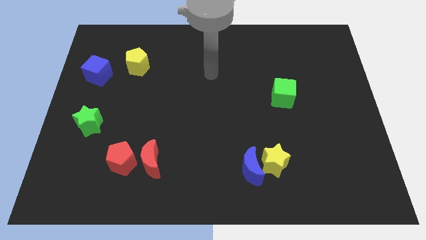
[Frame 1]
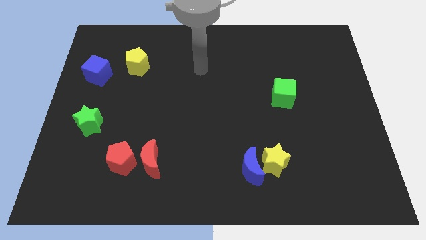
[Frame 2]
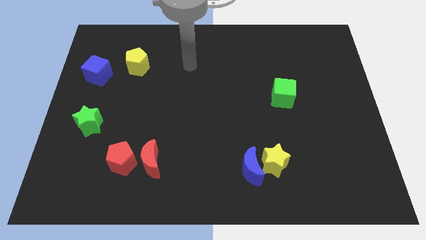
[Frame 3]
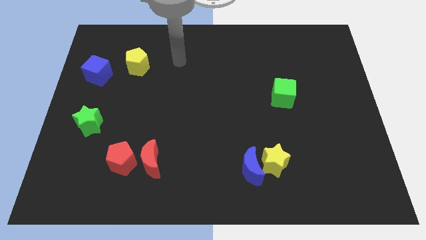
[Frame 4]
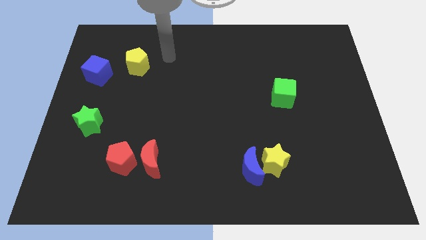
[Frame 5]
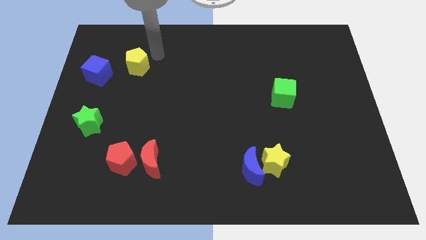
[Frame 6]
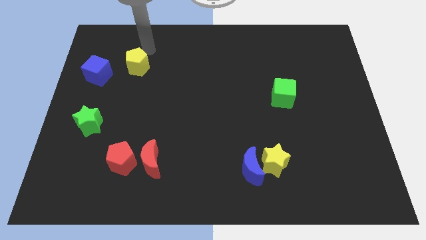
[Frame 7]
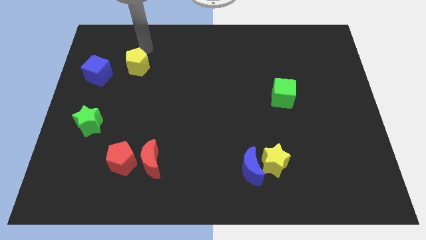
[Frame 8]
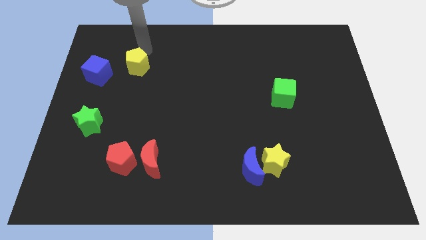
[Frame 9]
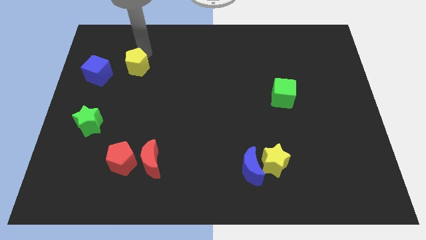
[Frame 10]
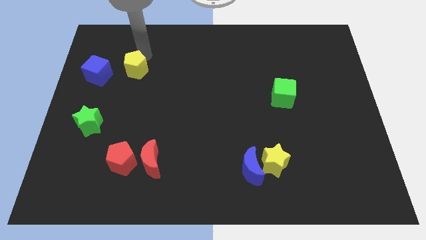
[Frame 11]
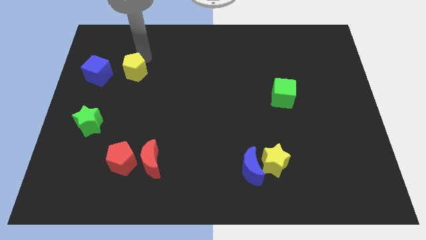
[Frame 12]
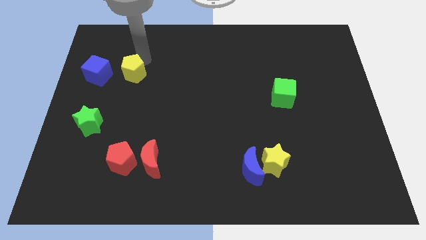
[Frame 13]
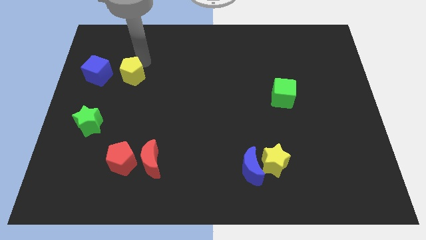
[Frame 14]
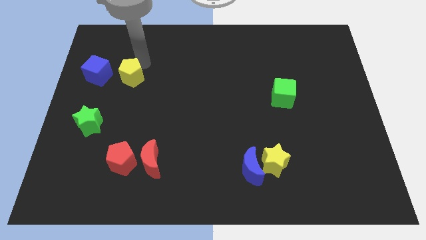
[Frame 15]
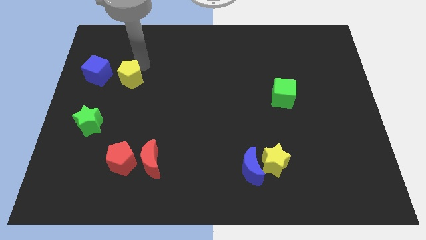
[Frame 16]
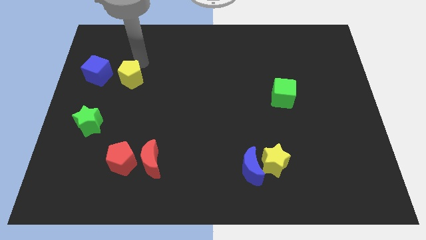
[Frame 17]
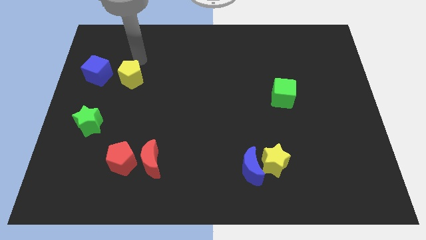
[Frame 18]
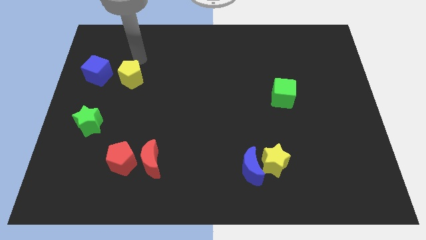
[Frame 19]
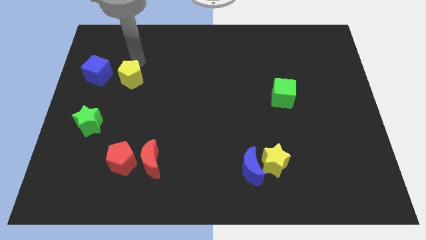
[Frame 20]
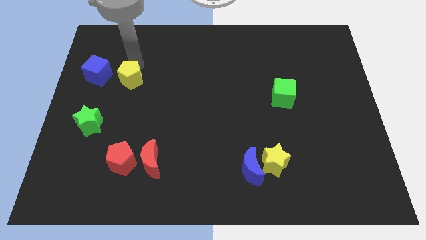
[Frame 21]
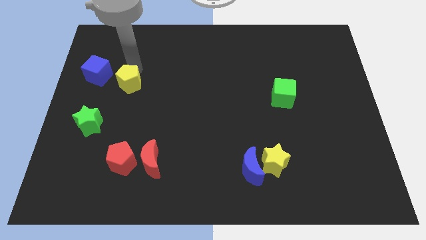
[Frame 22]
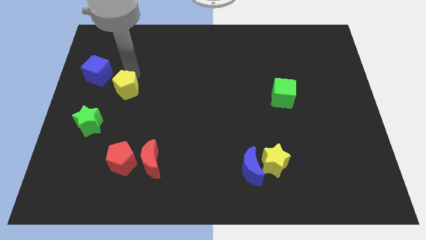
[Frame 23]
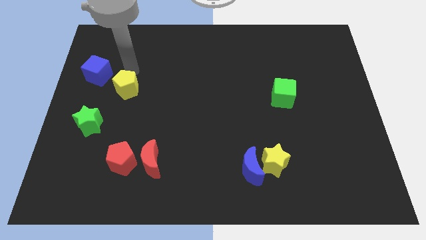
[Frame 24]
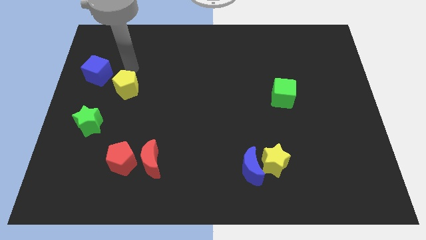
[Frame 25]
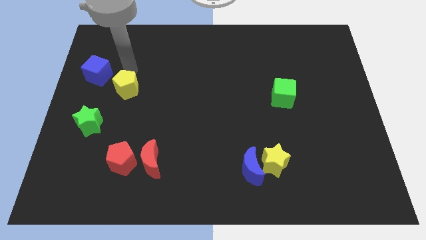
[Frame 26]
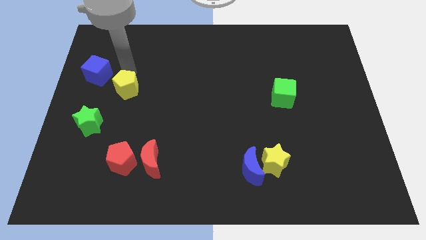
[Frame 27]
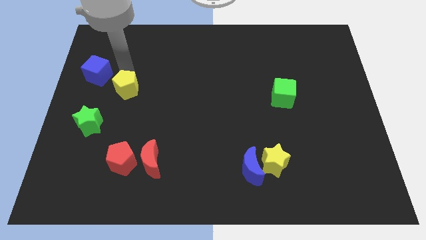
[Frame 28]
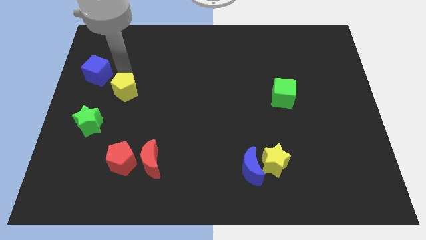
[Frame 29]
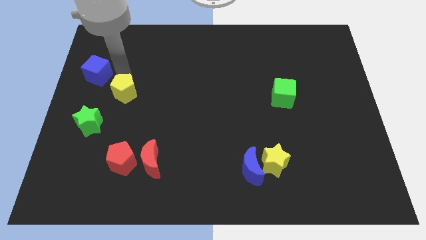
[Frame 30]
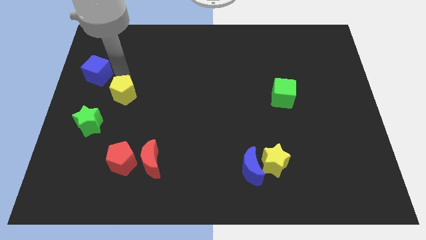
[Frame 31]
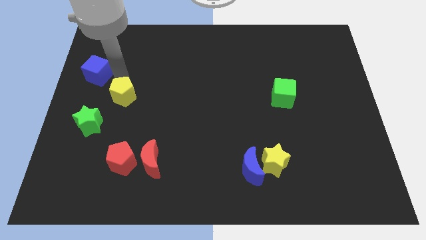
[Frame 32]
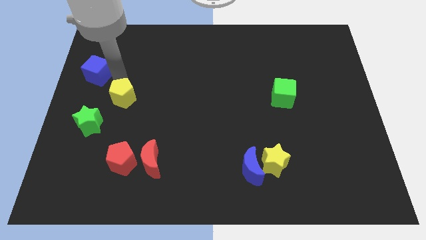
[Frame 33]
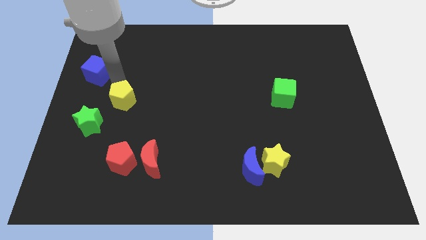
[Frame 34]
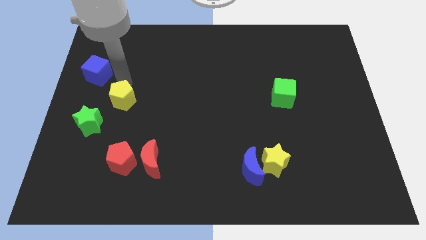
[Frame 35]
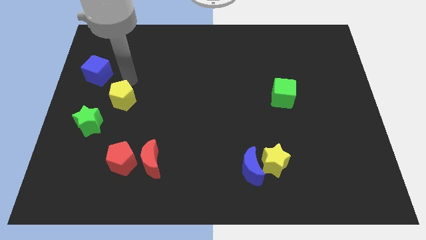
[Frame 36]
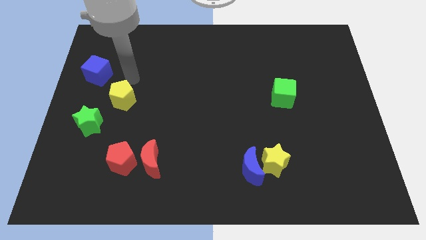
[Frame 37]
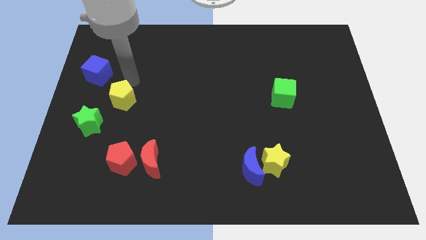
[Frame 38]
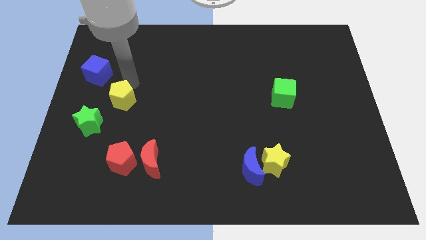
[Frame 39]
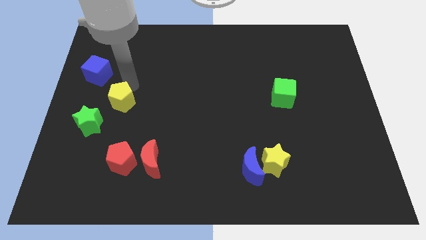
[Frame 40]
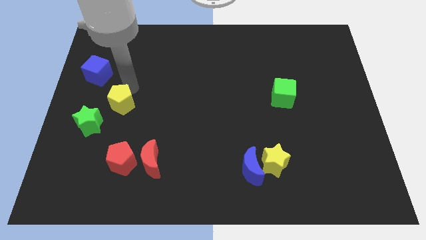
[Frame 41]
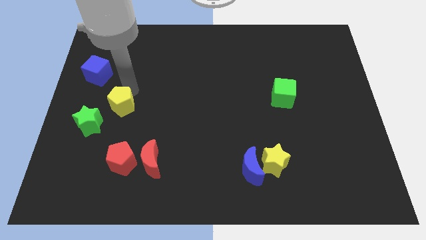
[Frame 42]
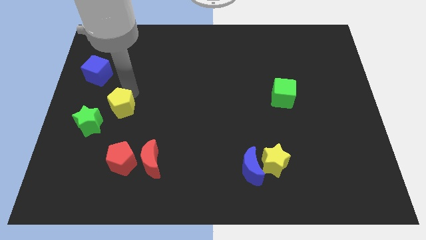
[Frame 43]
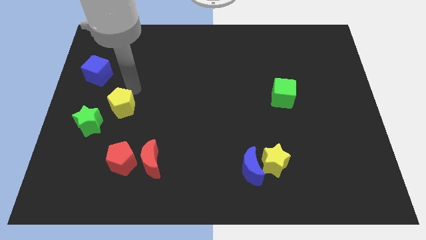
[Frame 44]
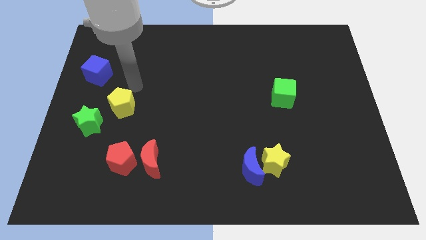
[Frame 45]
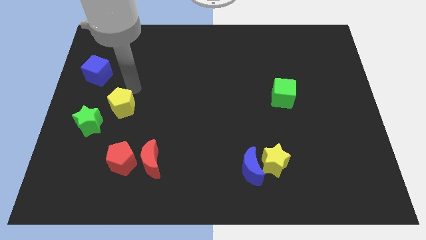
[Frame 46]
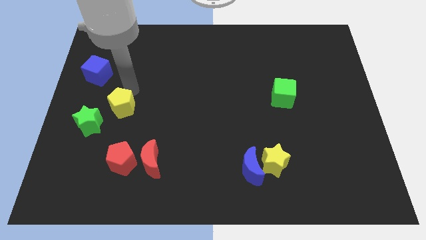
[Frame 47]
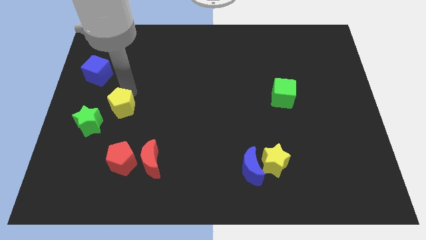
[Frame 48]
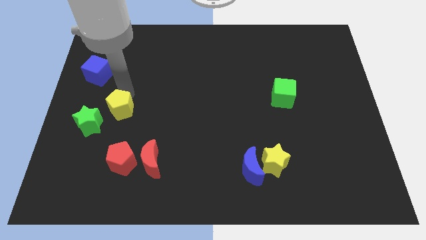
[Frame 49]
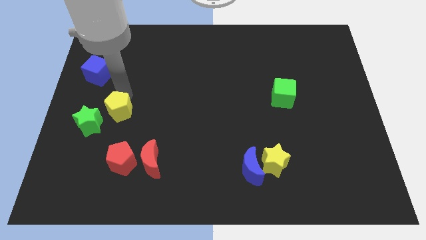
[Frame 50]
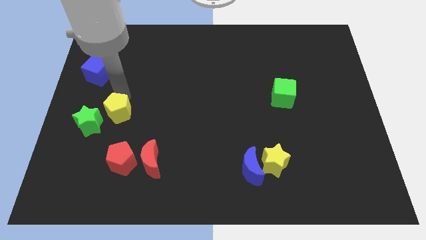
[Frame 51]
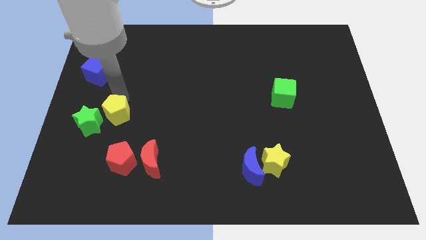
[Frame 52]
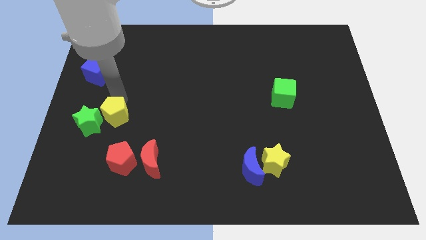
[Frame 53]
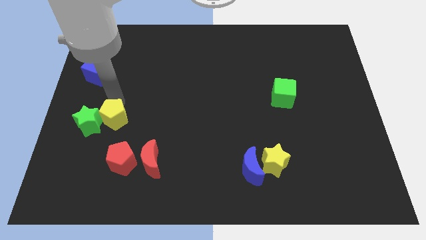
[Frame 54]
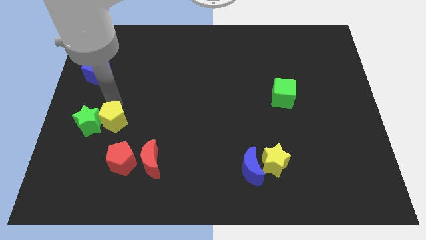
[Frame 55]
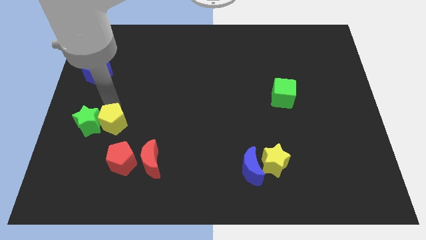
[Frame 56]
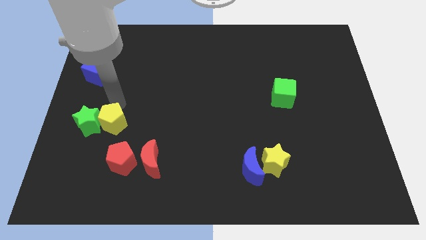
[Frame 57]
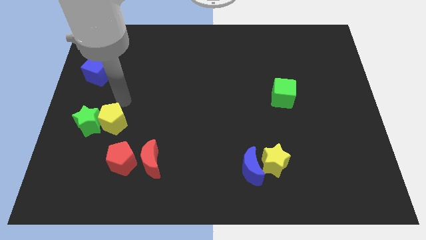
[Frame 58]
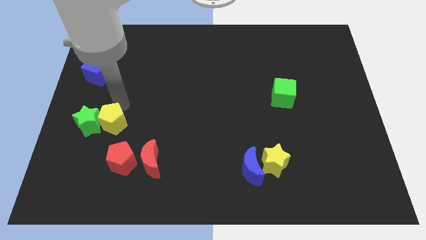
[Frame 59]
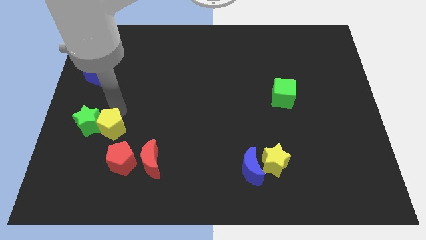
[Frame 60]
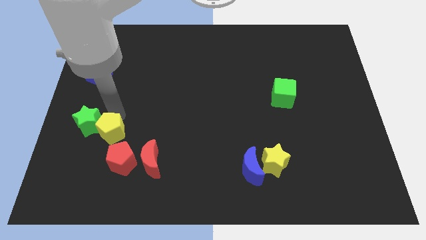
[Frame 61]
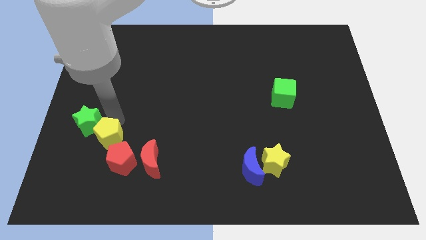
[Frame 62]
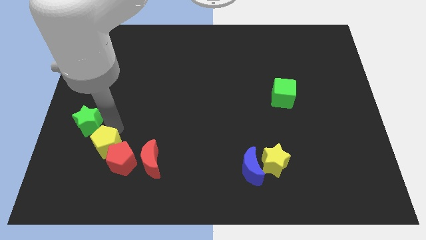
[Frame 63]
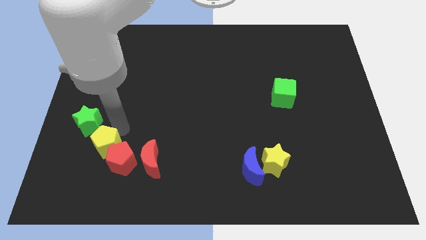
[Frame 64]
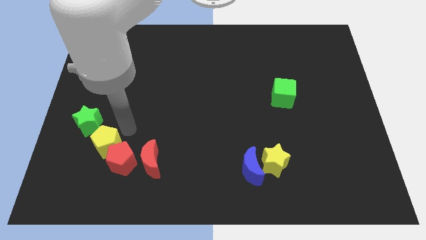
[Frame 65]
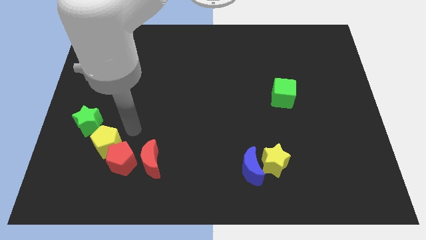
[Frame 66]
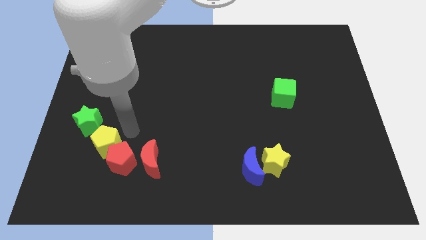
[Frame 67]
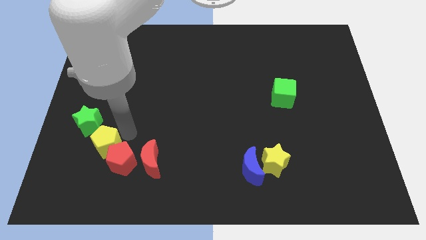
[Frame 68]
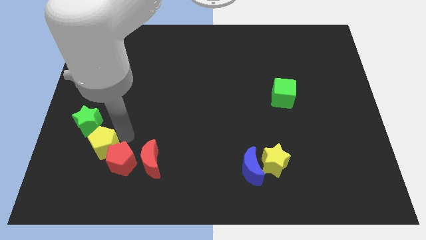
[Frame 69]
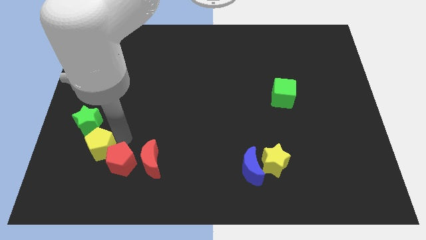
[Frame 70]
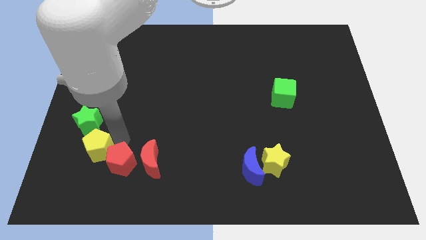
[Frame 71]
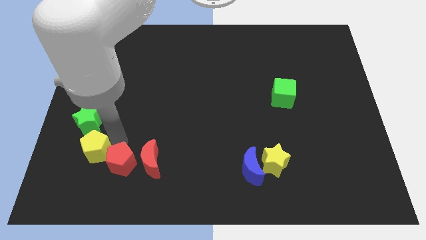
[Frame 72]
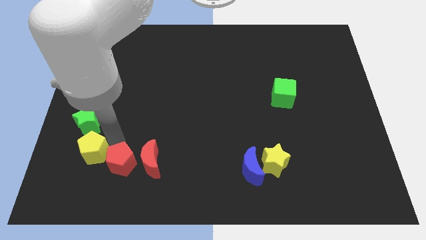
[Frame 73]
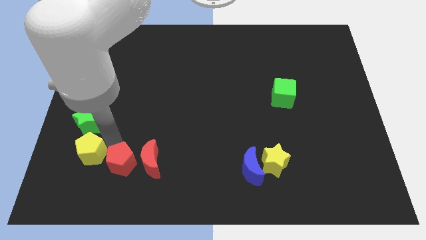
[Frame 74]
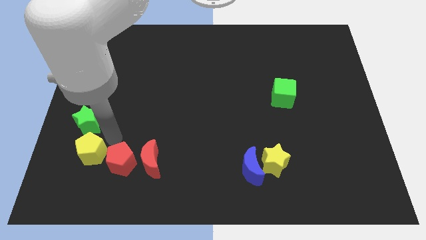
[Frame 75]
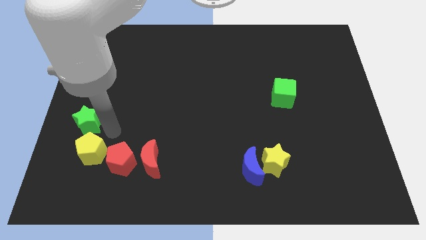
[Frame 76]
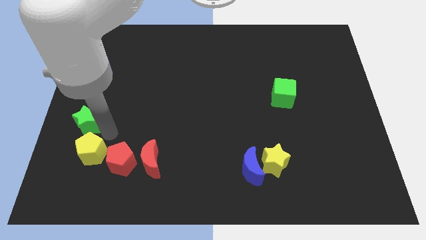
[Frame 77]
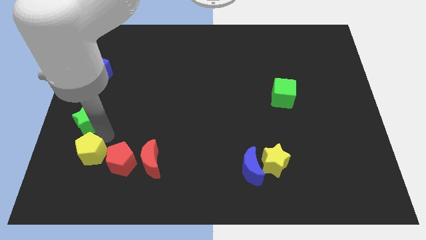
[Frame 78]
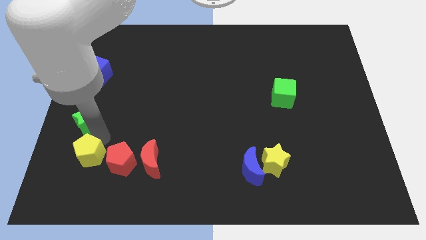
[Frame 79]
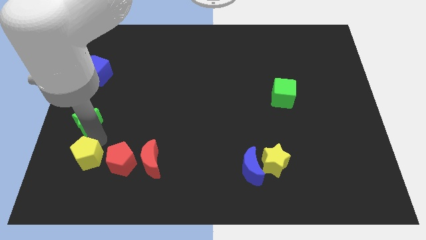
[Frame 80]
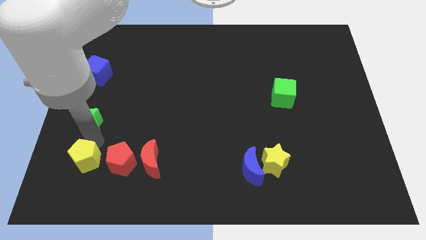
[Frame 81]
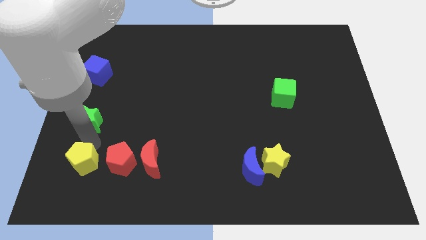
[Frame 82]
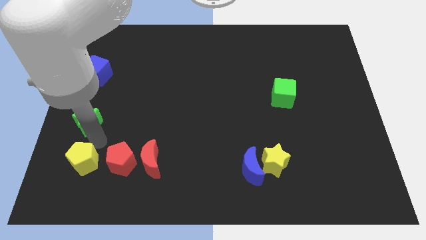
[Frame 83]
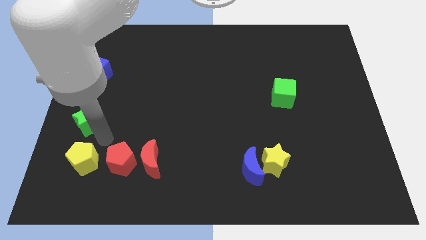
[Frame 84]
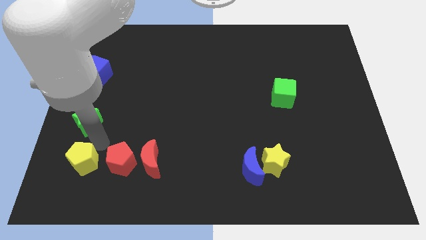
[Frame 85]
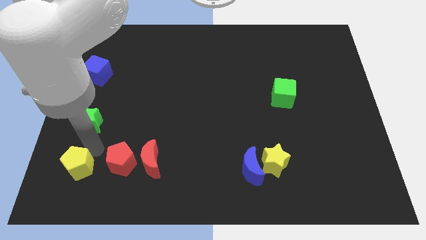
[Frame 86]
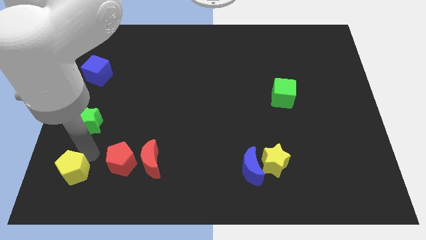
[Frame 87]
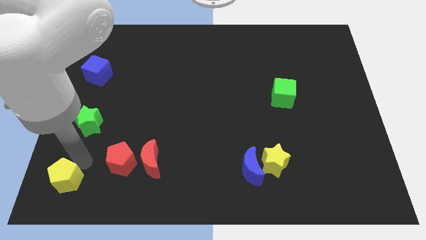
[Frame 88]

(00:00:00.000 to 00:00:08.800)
move the yellow pentagon to the bottom left corner
